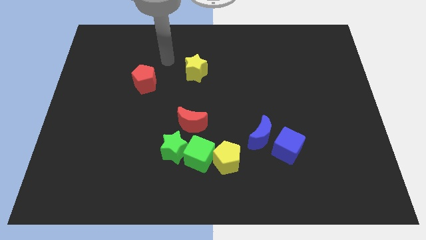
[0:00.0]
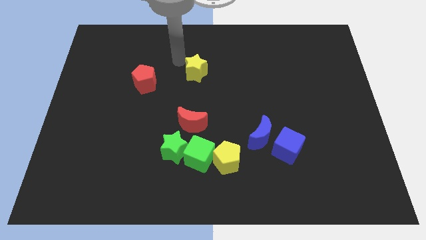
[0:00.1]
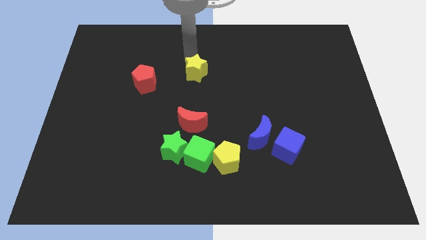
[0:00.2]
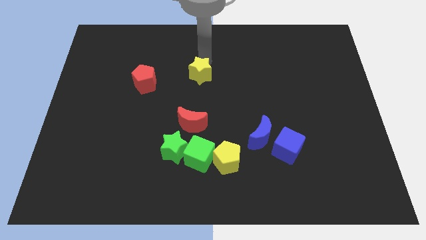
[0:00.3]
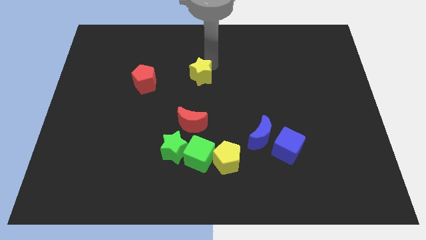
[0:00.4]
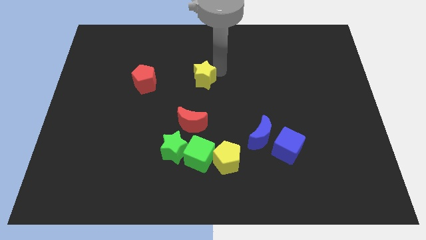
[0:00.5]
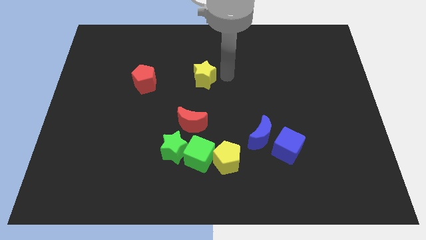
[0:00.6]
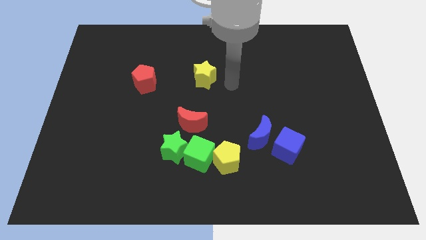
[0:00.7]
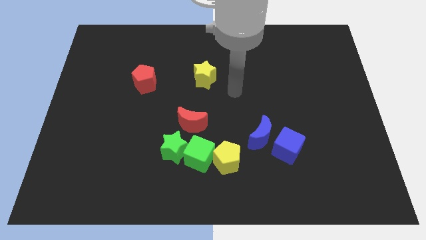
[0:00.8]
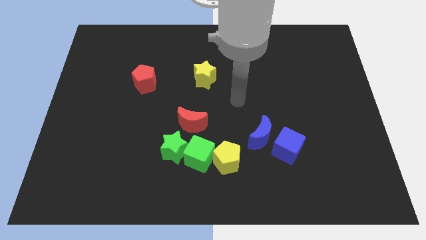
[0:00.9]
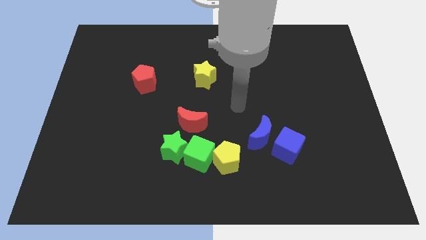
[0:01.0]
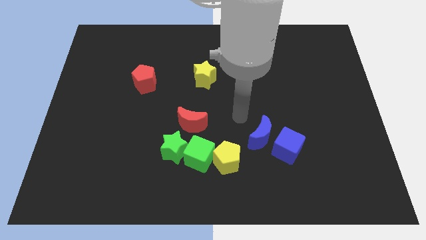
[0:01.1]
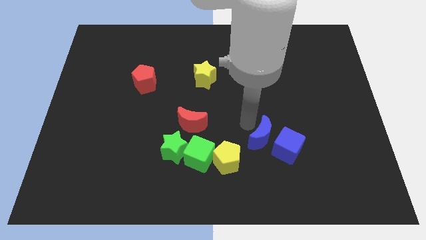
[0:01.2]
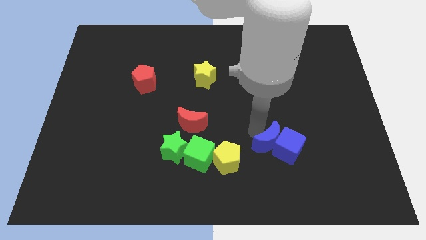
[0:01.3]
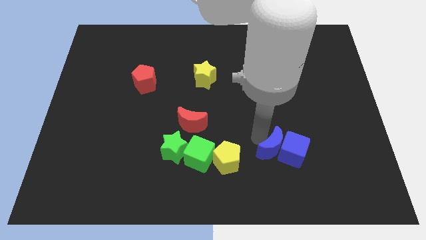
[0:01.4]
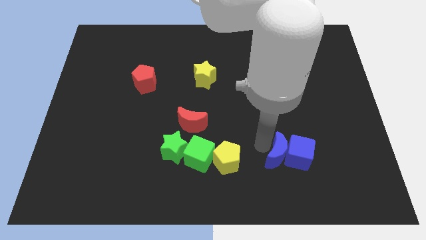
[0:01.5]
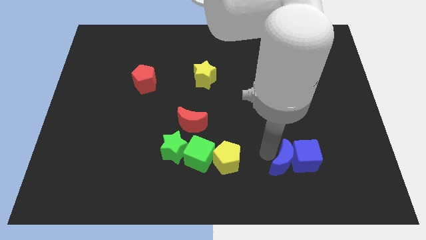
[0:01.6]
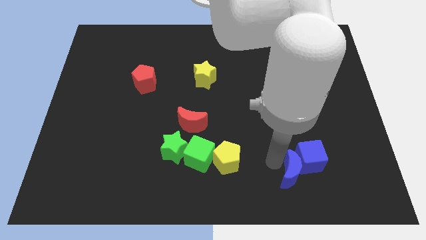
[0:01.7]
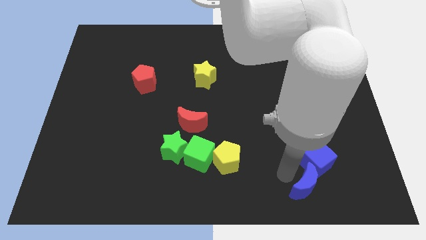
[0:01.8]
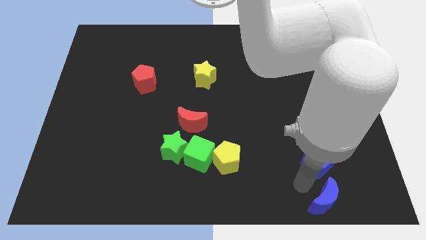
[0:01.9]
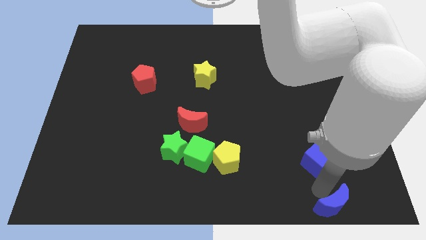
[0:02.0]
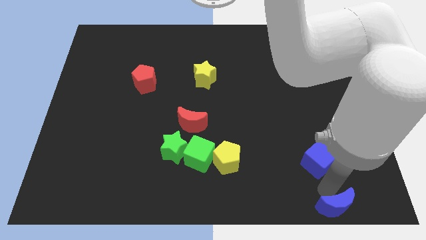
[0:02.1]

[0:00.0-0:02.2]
separate the blue cube from the blue moon

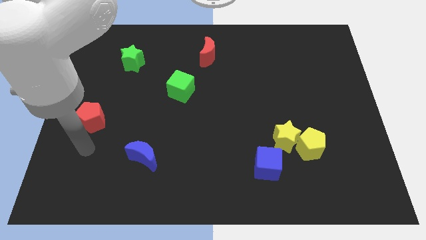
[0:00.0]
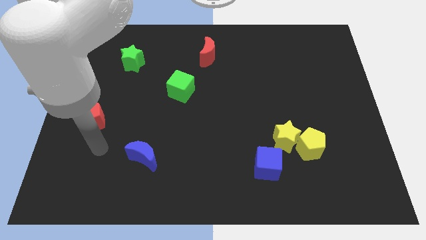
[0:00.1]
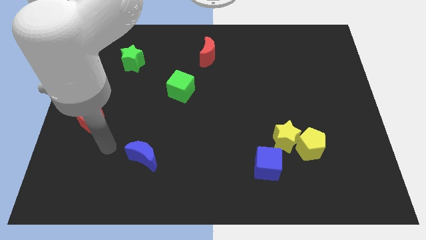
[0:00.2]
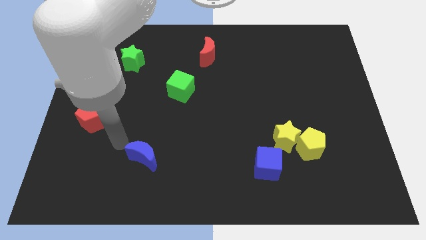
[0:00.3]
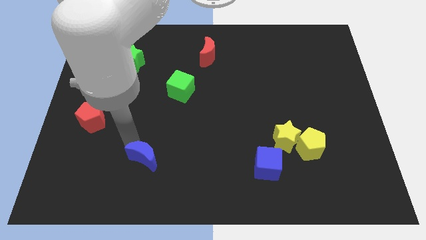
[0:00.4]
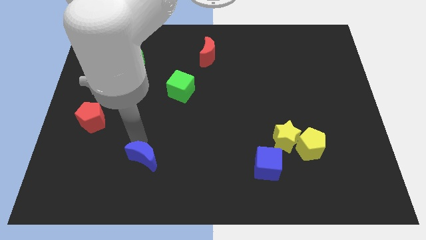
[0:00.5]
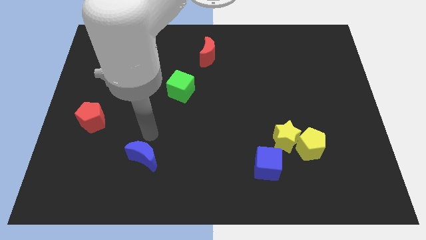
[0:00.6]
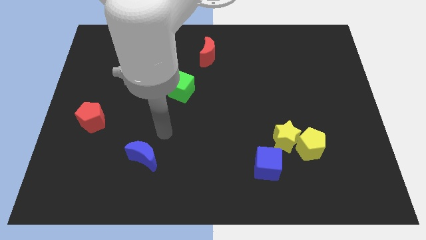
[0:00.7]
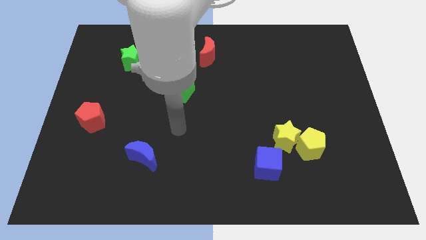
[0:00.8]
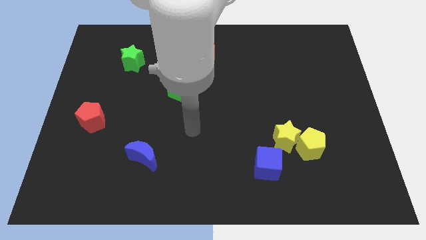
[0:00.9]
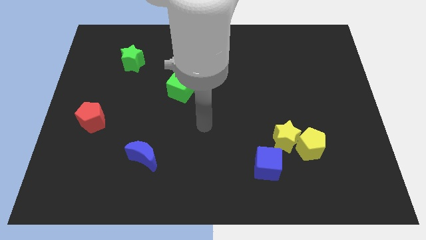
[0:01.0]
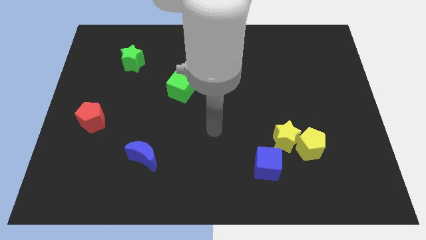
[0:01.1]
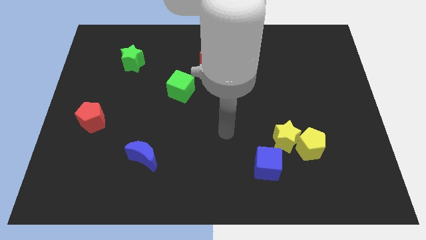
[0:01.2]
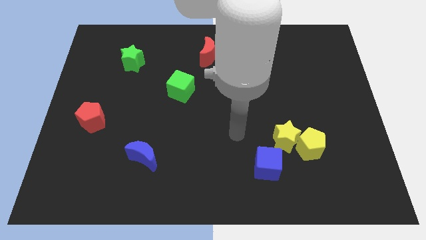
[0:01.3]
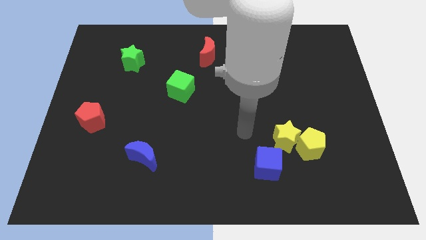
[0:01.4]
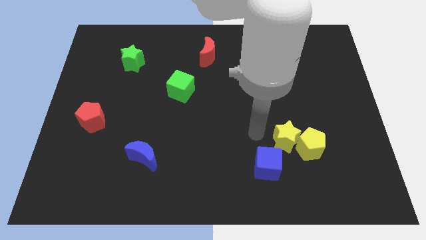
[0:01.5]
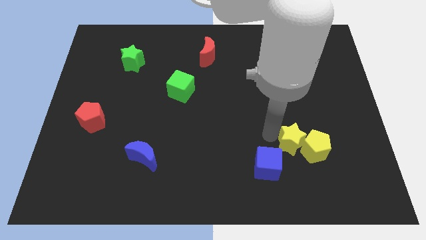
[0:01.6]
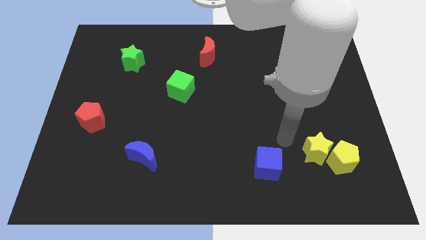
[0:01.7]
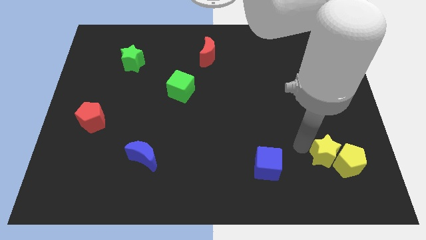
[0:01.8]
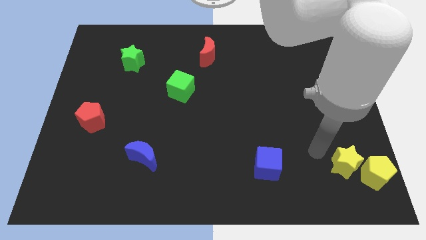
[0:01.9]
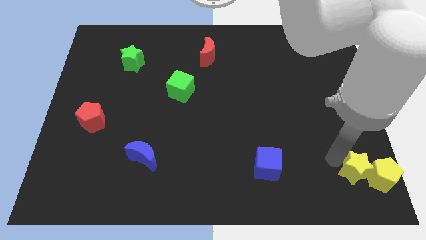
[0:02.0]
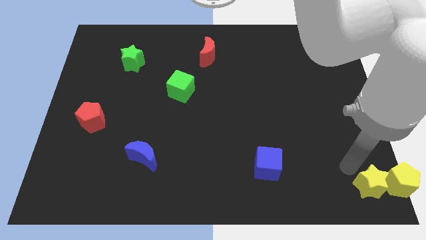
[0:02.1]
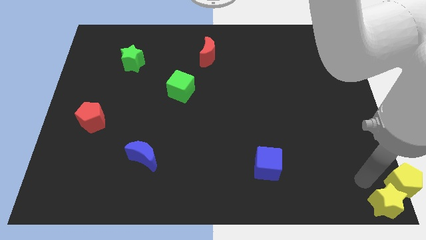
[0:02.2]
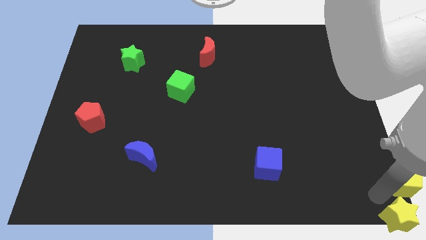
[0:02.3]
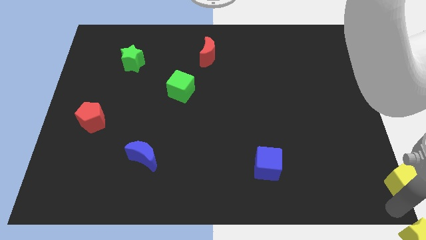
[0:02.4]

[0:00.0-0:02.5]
pull the yellow pentagon apart from the yellow star

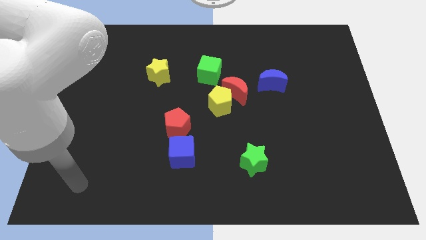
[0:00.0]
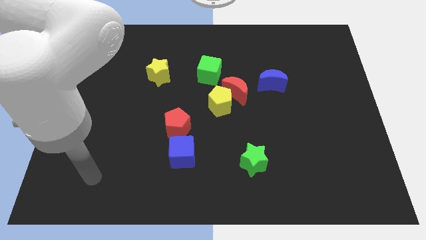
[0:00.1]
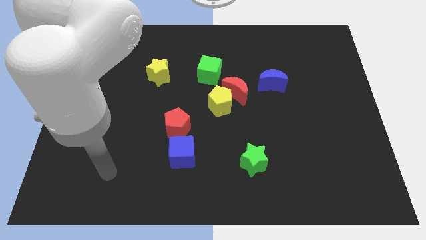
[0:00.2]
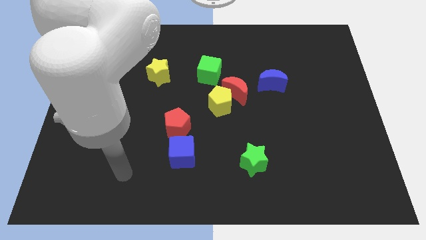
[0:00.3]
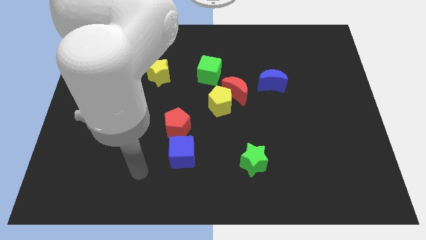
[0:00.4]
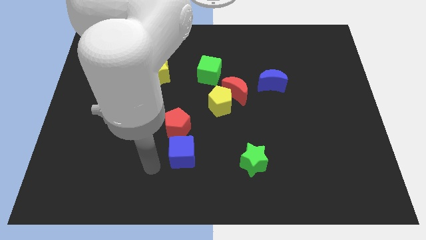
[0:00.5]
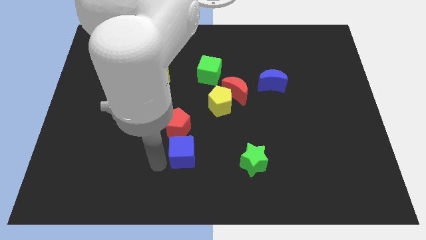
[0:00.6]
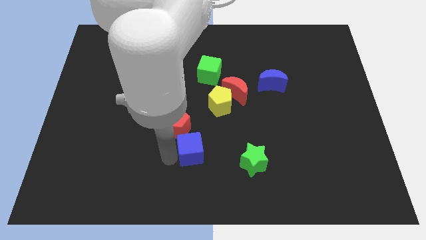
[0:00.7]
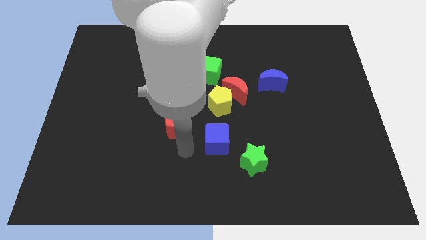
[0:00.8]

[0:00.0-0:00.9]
separate the red pentagon from the blue cube

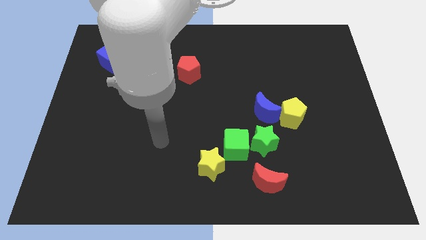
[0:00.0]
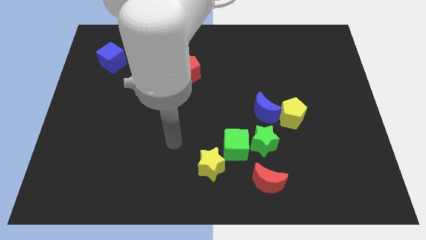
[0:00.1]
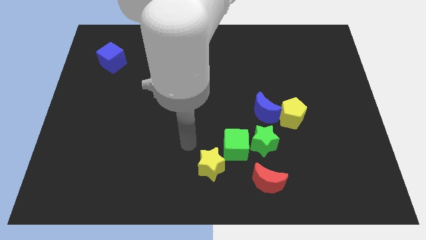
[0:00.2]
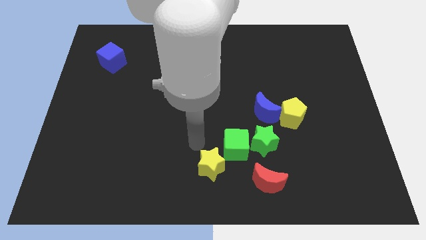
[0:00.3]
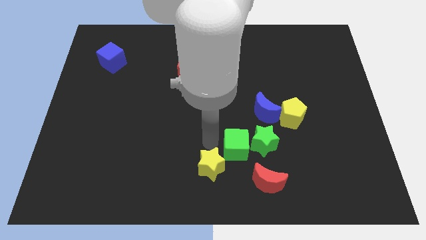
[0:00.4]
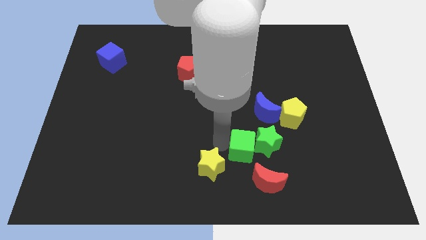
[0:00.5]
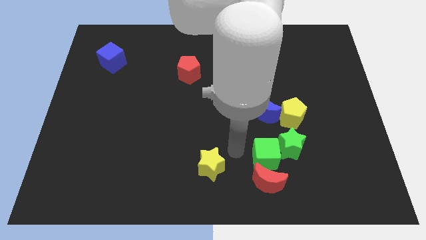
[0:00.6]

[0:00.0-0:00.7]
pull the yellow star apart from the green cube

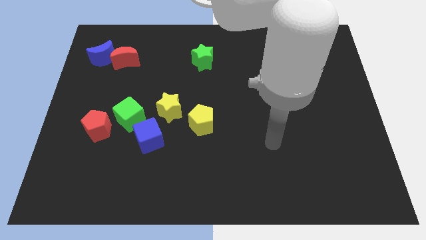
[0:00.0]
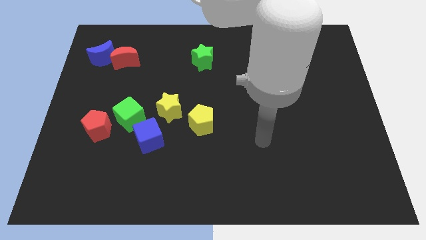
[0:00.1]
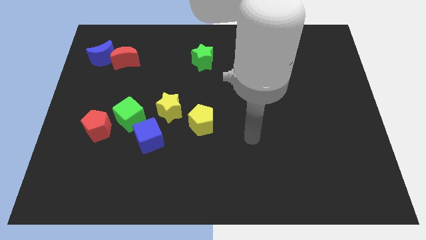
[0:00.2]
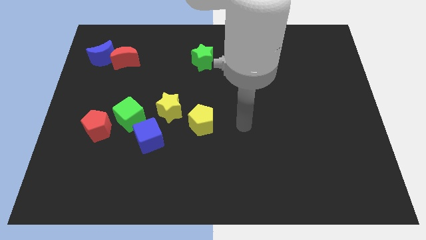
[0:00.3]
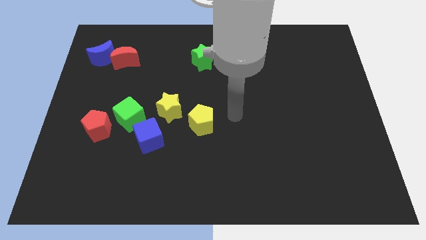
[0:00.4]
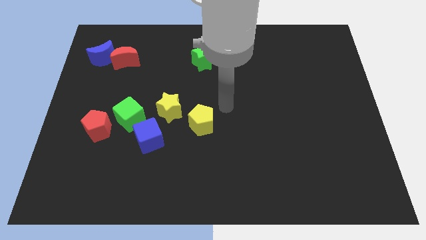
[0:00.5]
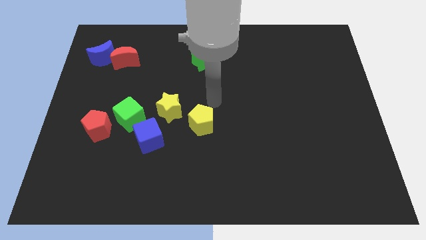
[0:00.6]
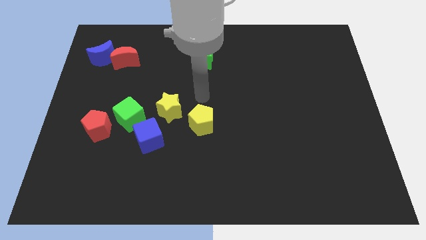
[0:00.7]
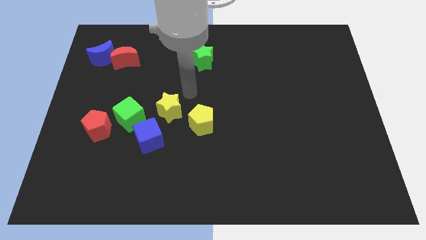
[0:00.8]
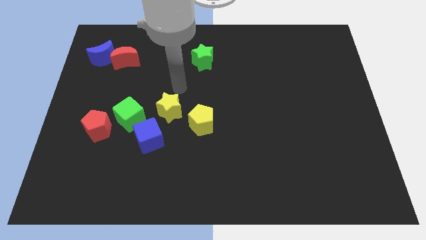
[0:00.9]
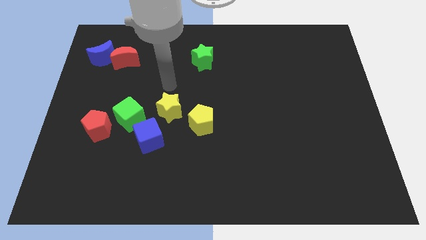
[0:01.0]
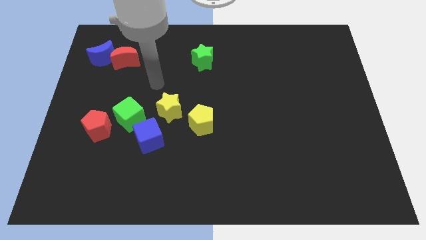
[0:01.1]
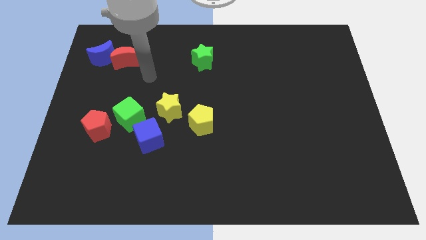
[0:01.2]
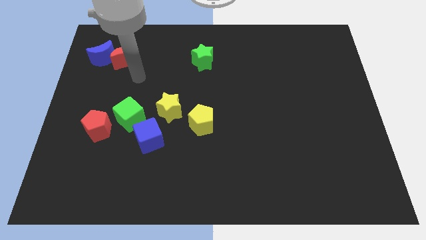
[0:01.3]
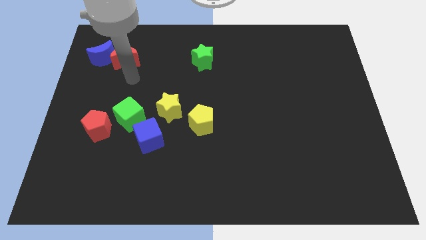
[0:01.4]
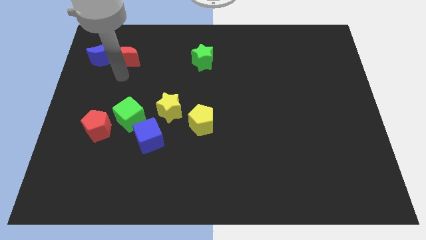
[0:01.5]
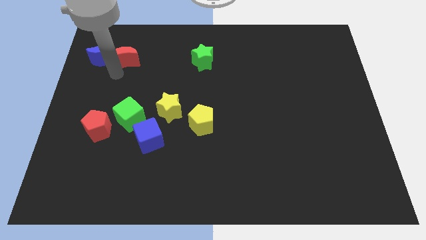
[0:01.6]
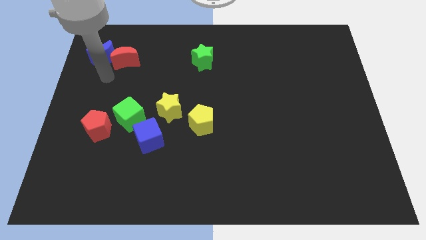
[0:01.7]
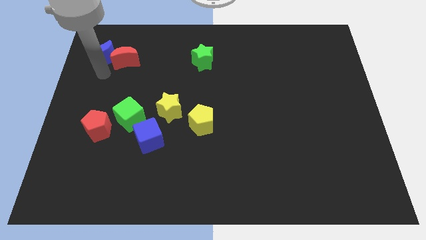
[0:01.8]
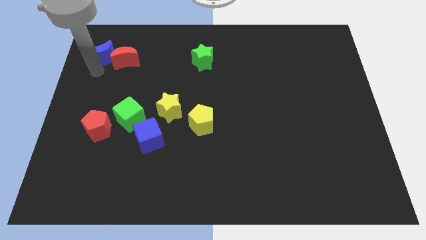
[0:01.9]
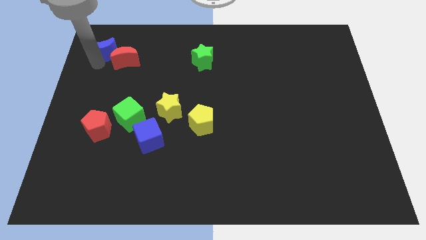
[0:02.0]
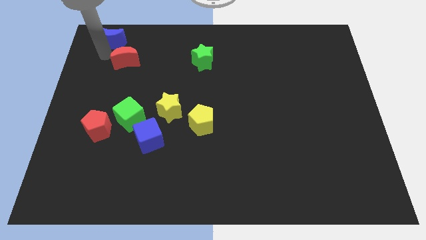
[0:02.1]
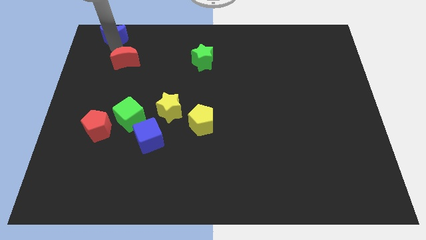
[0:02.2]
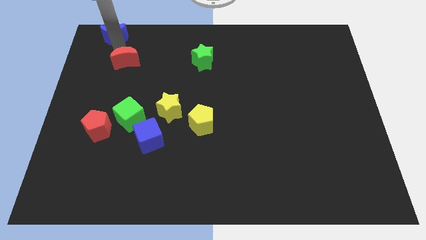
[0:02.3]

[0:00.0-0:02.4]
pull the red moon apart from the blue moon

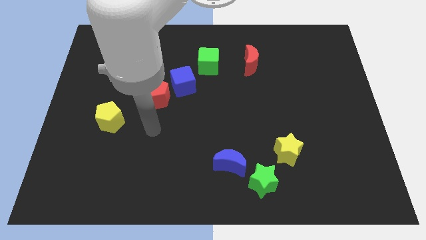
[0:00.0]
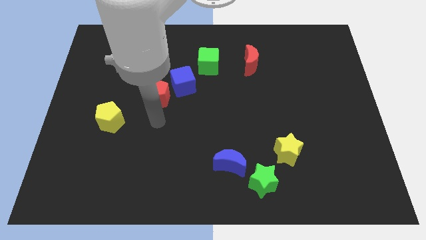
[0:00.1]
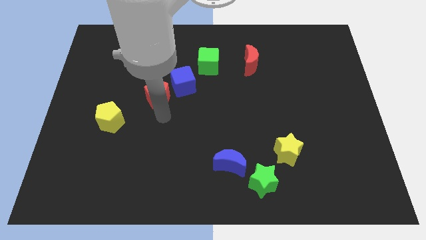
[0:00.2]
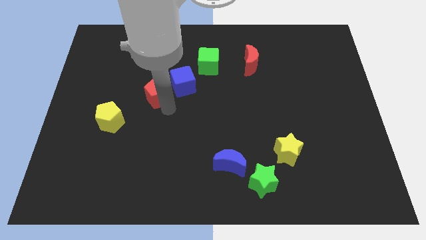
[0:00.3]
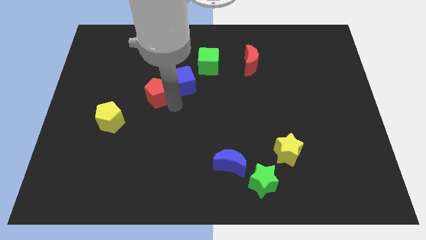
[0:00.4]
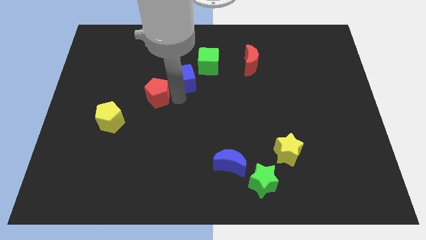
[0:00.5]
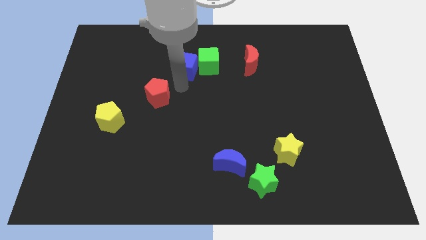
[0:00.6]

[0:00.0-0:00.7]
move the red pentagon away from the blue cube
